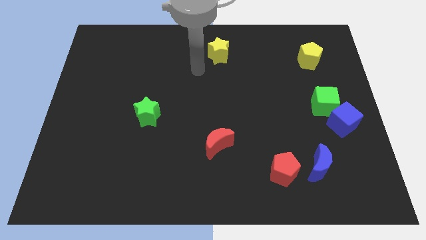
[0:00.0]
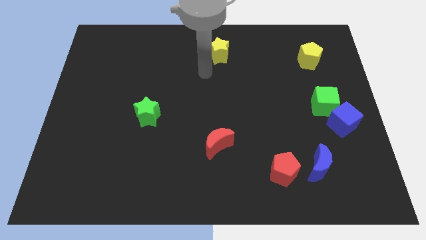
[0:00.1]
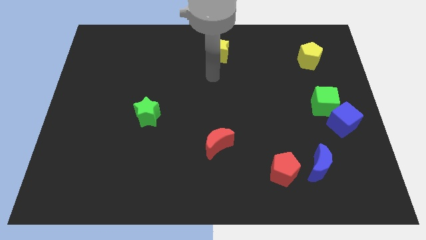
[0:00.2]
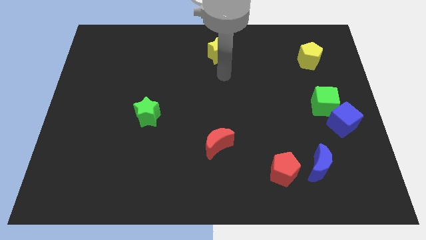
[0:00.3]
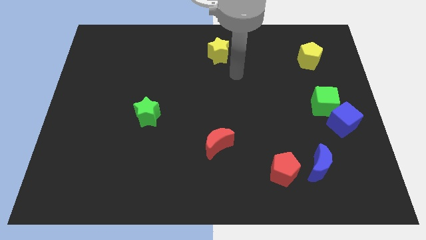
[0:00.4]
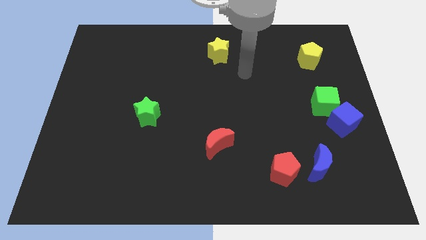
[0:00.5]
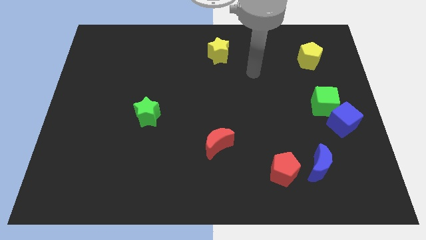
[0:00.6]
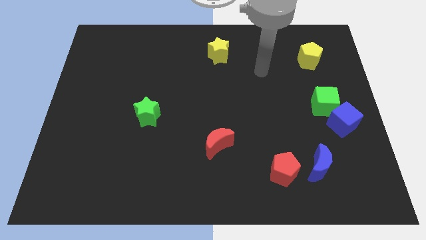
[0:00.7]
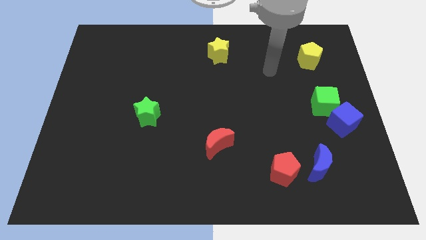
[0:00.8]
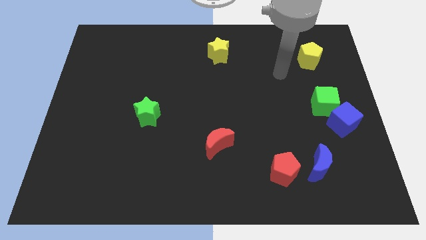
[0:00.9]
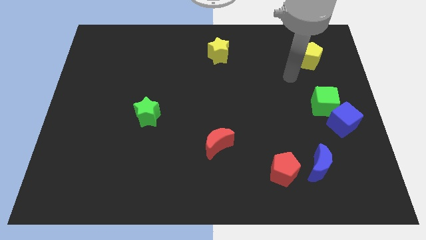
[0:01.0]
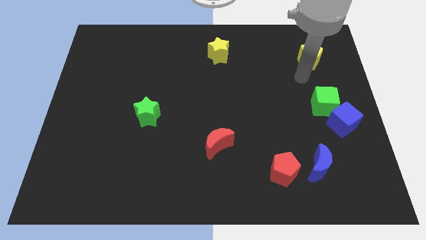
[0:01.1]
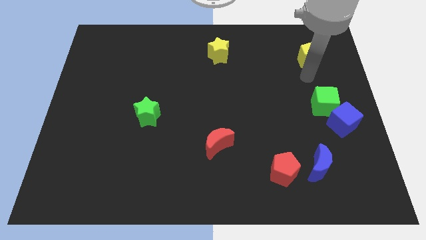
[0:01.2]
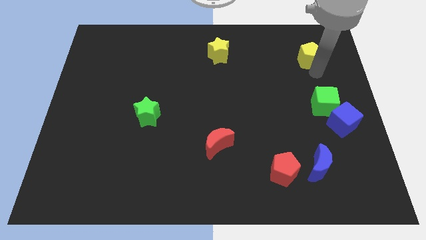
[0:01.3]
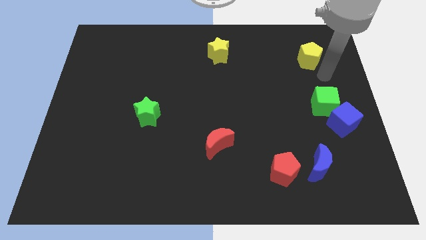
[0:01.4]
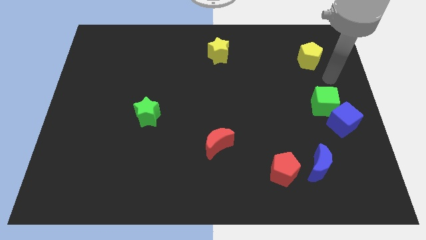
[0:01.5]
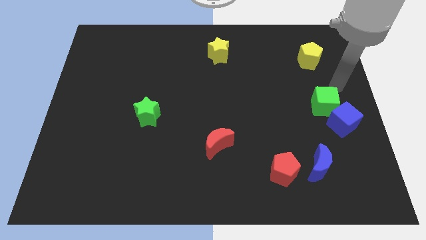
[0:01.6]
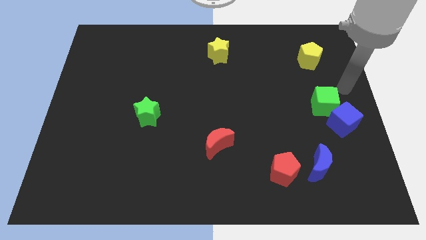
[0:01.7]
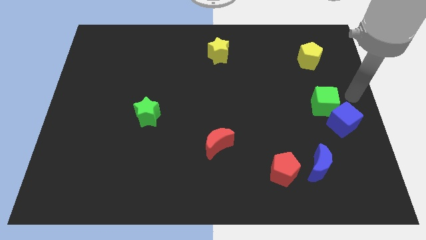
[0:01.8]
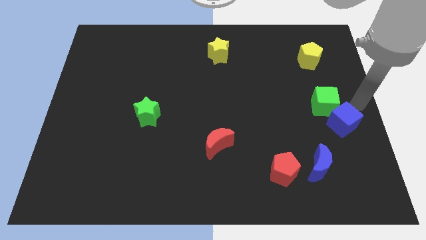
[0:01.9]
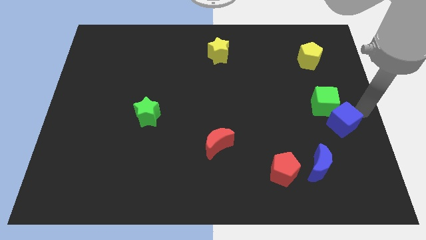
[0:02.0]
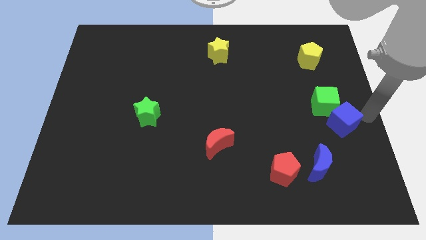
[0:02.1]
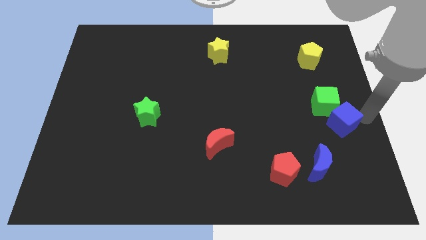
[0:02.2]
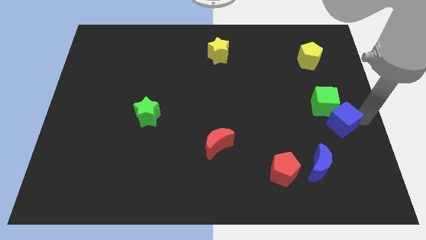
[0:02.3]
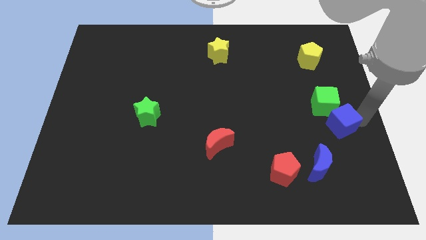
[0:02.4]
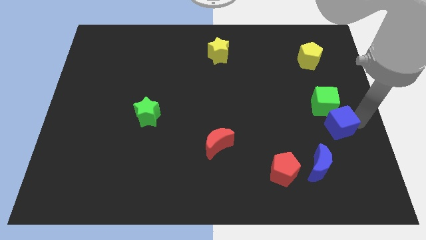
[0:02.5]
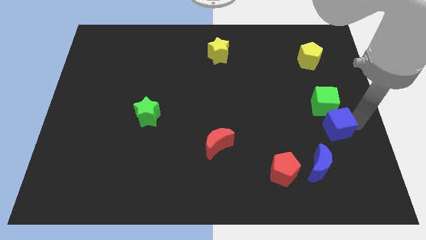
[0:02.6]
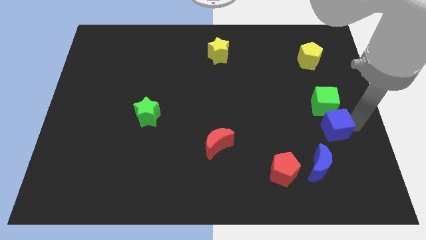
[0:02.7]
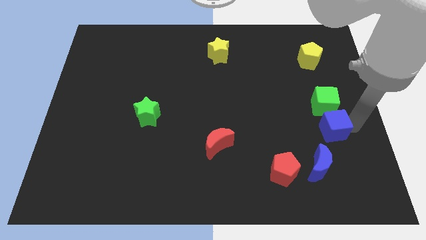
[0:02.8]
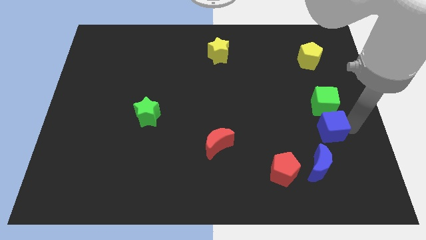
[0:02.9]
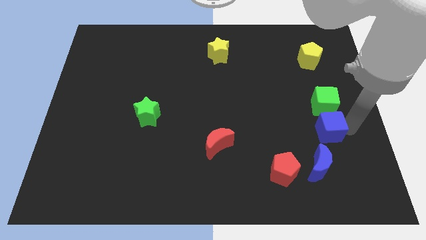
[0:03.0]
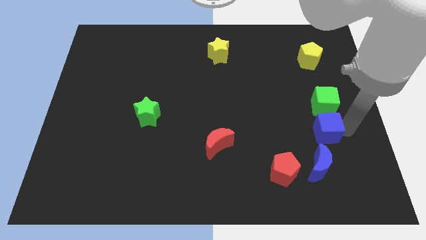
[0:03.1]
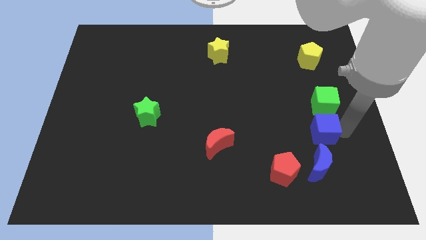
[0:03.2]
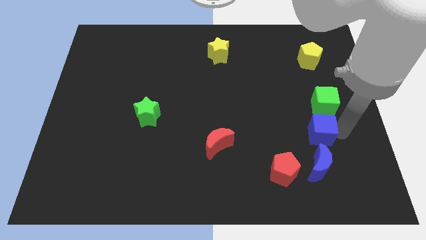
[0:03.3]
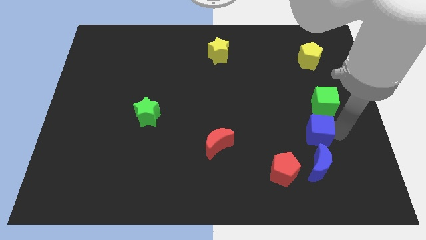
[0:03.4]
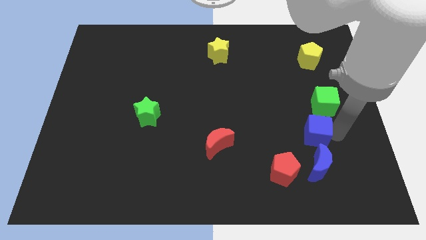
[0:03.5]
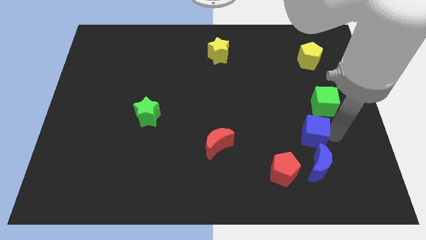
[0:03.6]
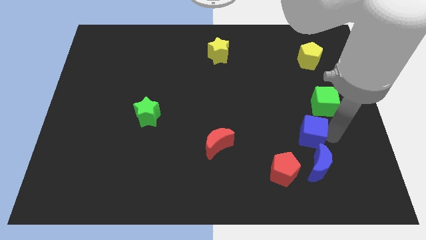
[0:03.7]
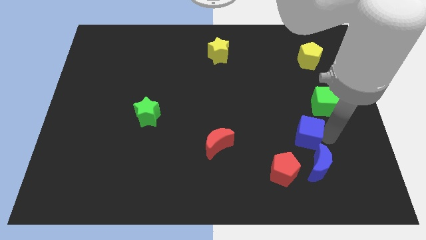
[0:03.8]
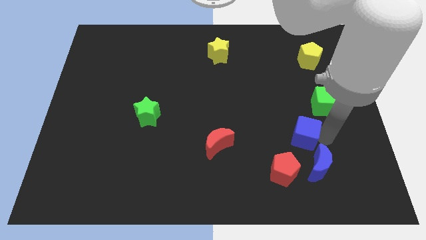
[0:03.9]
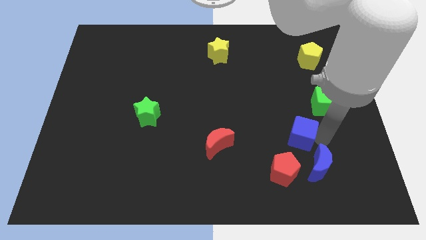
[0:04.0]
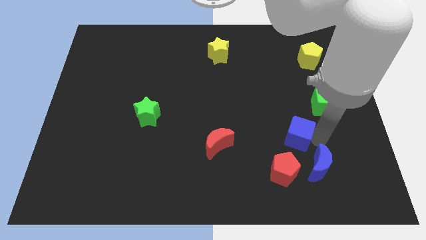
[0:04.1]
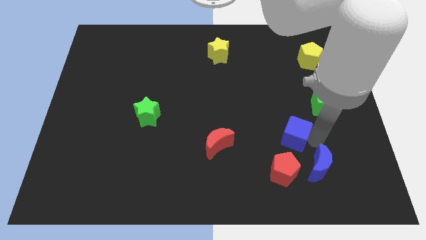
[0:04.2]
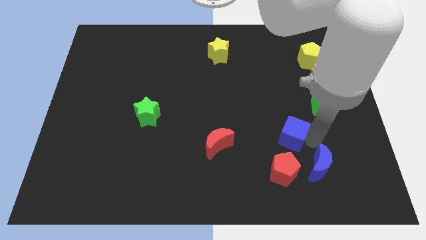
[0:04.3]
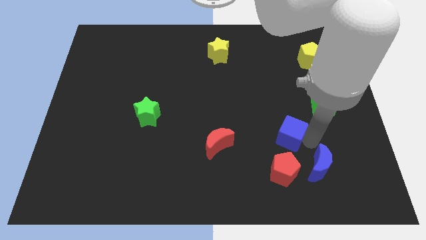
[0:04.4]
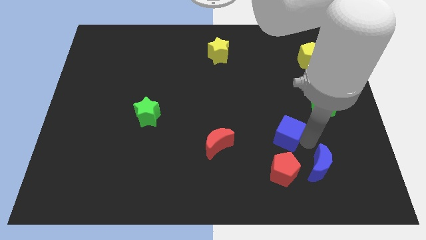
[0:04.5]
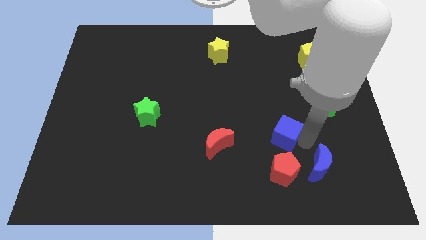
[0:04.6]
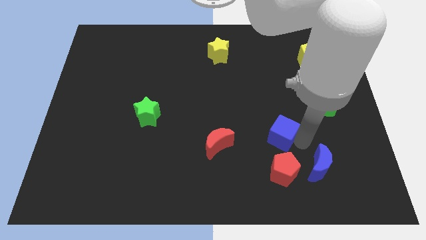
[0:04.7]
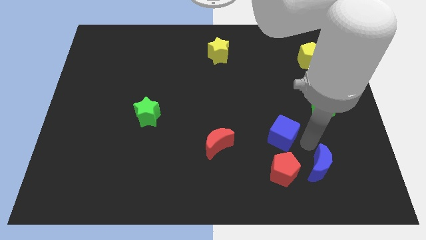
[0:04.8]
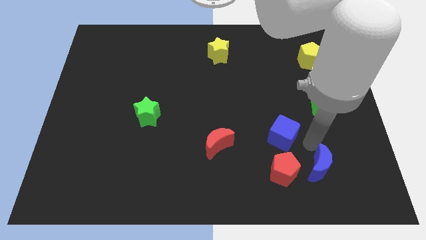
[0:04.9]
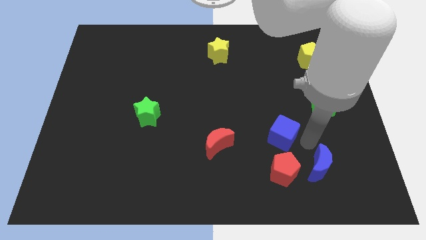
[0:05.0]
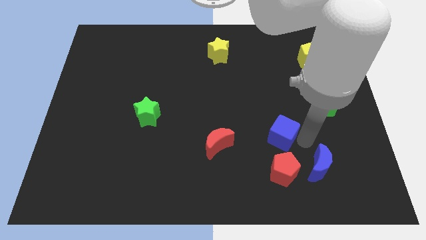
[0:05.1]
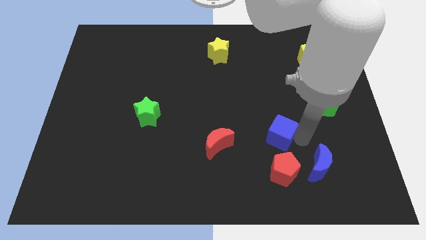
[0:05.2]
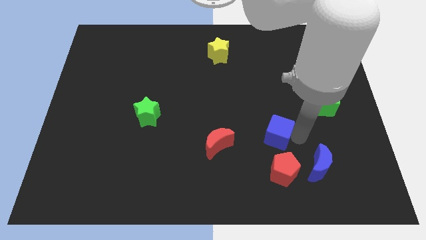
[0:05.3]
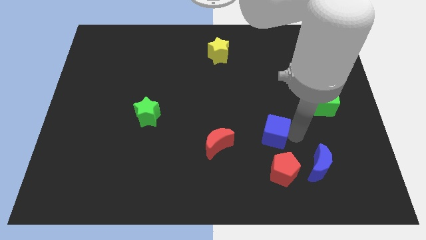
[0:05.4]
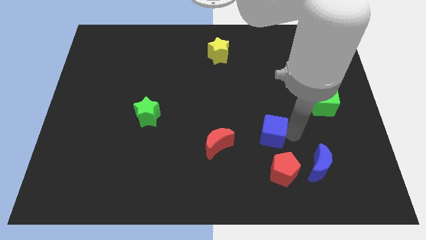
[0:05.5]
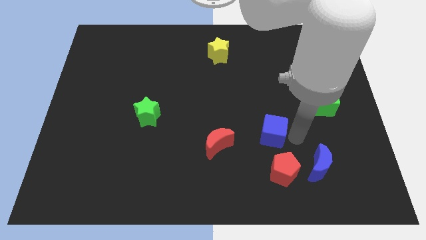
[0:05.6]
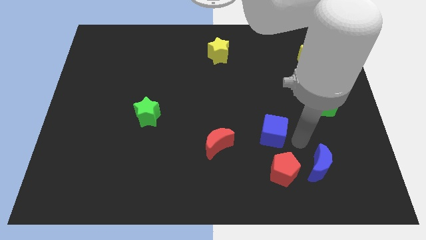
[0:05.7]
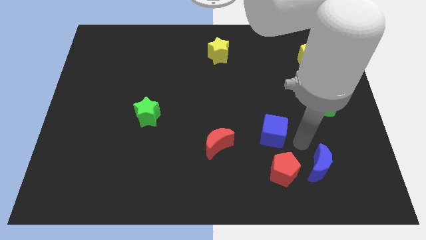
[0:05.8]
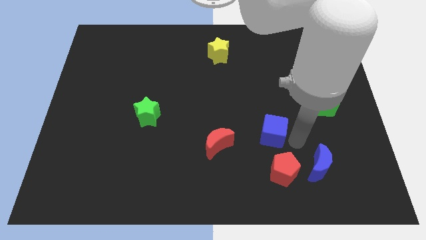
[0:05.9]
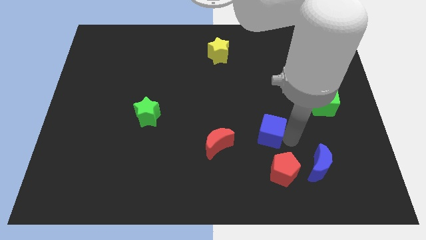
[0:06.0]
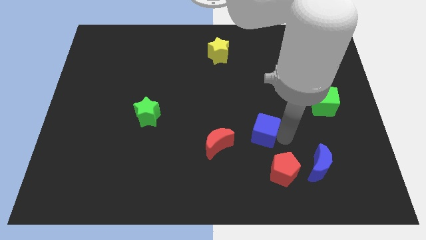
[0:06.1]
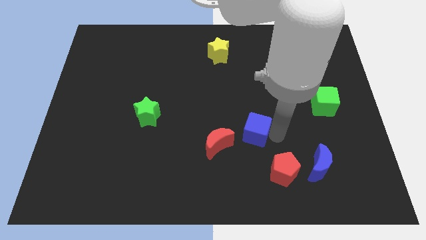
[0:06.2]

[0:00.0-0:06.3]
move the blue cube left

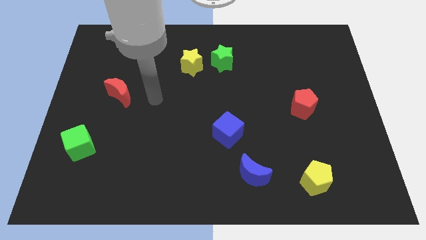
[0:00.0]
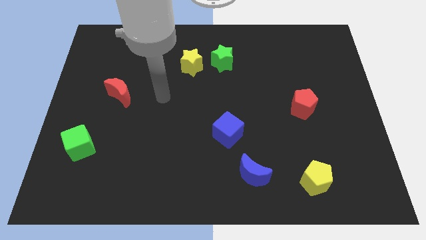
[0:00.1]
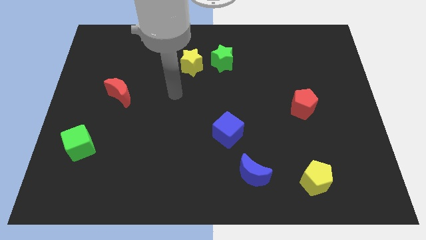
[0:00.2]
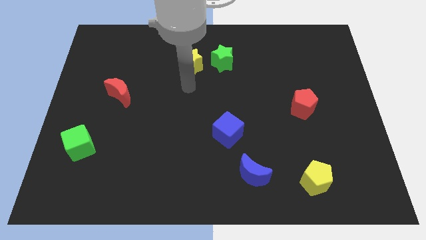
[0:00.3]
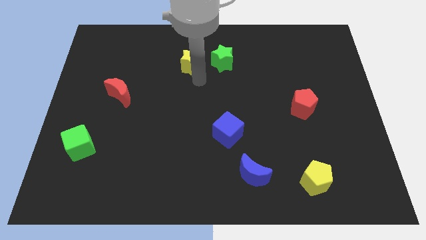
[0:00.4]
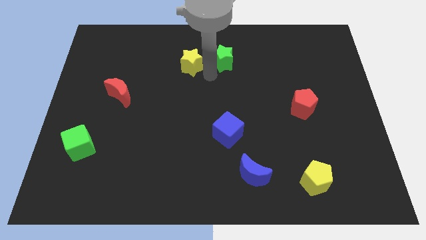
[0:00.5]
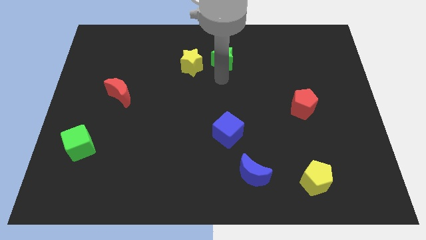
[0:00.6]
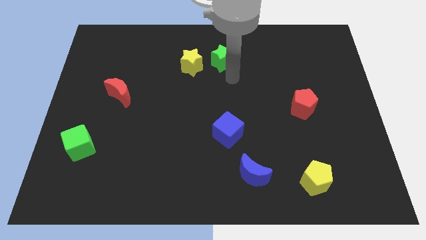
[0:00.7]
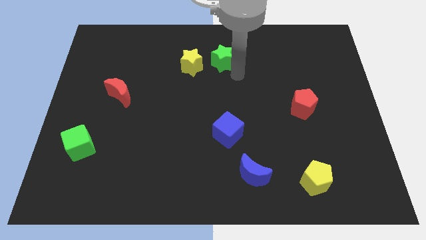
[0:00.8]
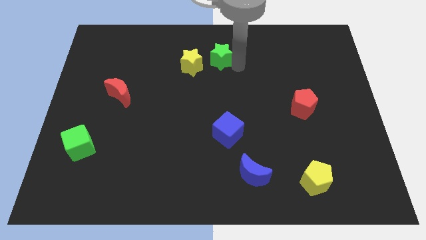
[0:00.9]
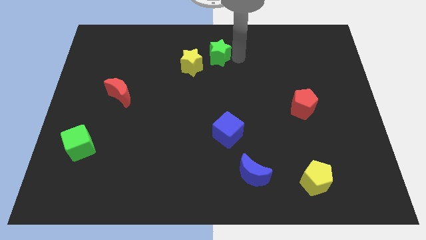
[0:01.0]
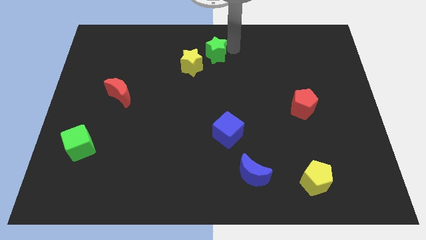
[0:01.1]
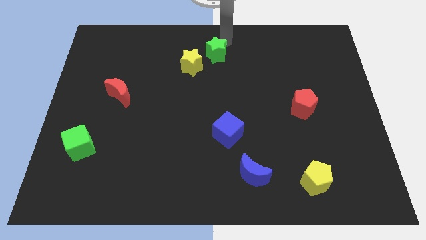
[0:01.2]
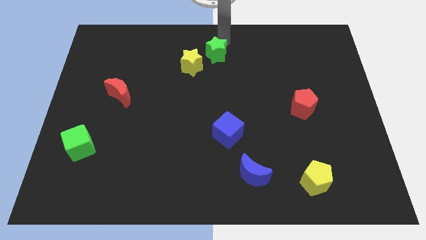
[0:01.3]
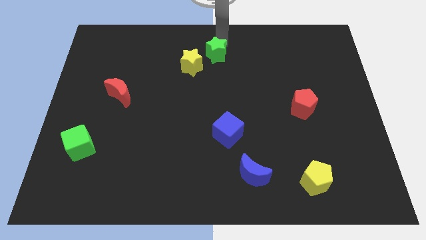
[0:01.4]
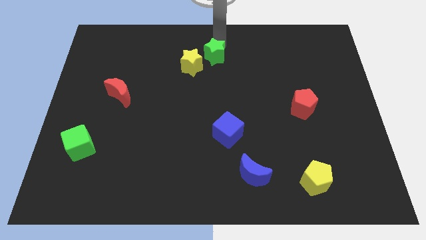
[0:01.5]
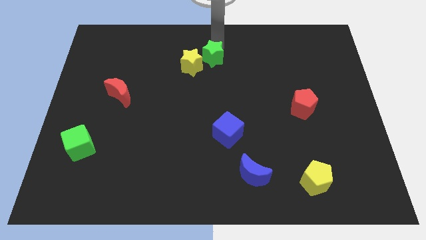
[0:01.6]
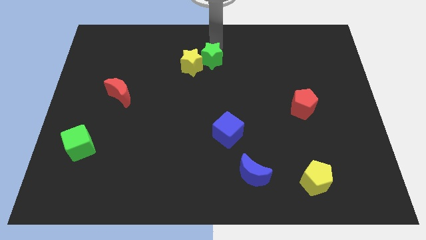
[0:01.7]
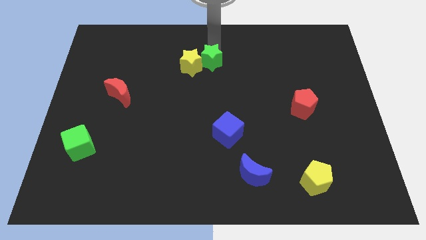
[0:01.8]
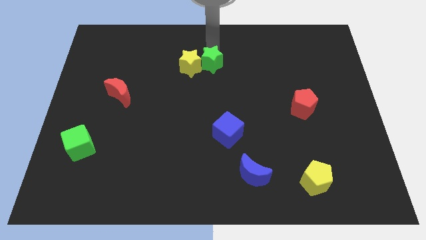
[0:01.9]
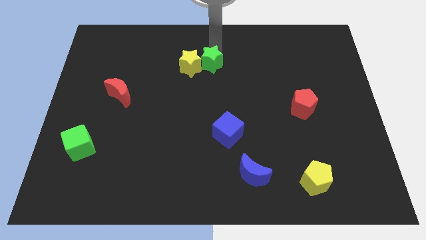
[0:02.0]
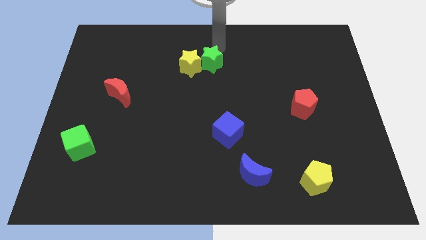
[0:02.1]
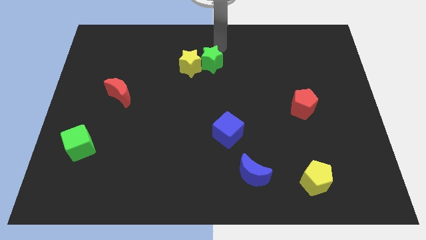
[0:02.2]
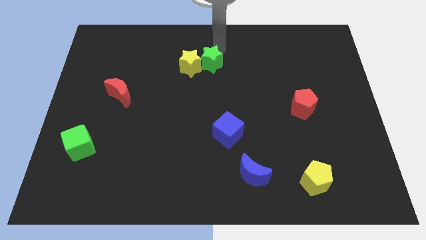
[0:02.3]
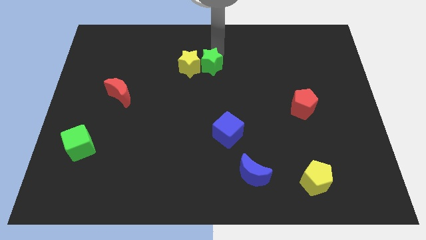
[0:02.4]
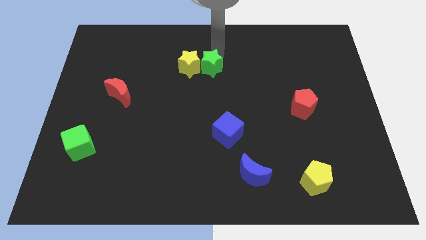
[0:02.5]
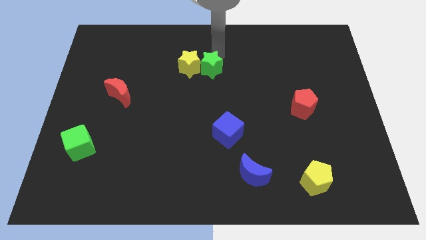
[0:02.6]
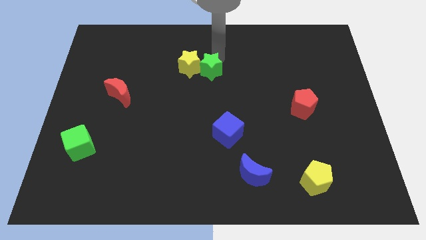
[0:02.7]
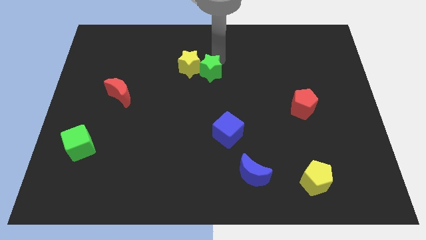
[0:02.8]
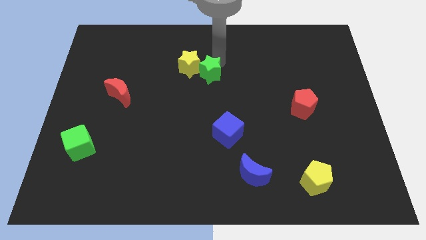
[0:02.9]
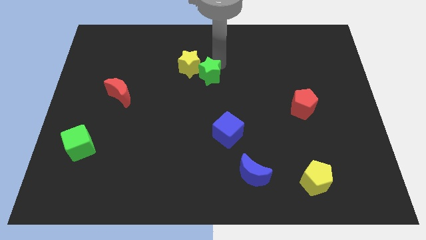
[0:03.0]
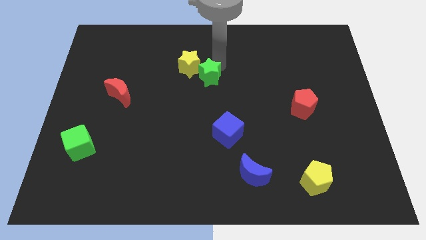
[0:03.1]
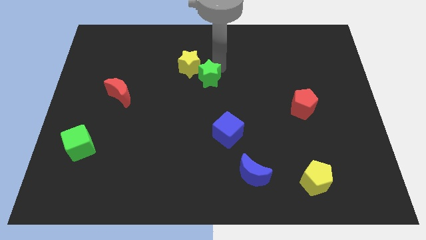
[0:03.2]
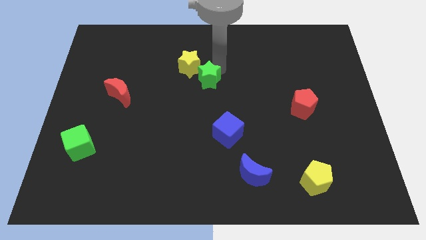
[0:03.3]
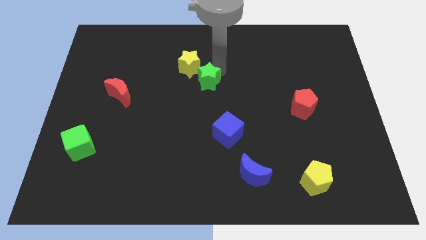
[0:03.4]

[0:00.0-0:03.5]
slightly push the green star diagonally downwards and to the left
